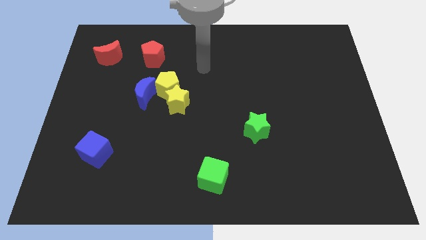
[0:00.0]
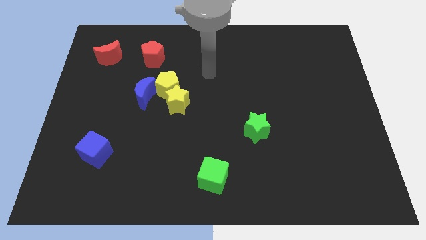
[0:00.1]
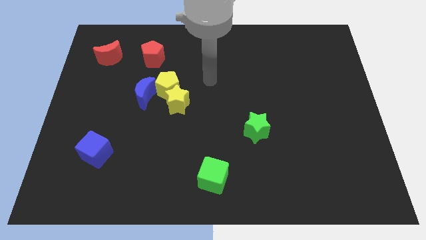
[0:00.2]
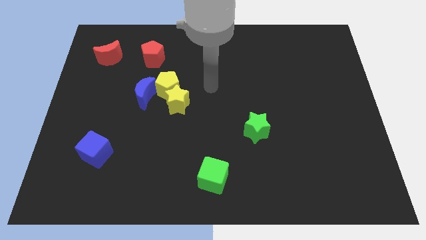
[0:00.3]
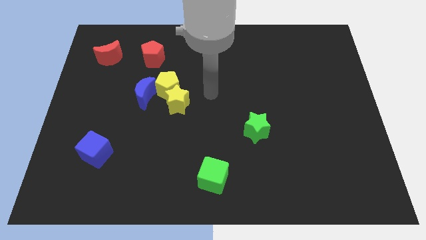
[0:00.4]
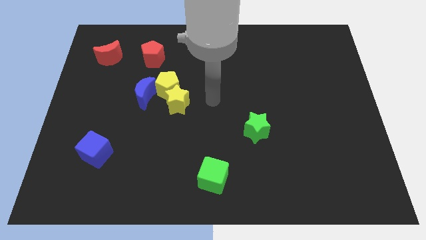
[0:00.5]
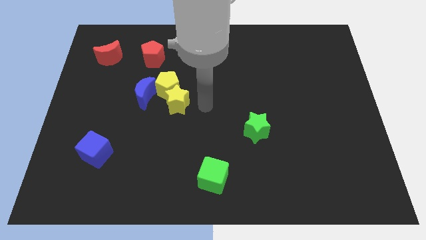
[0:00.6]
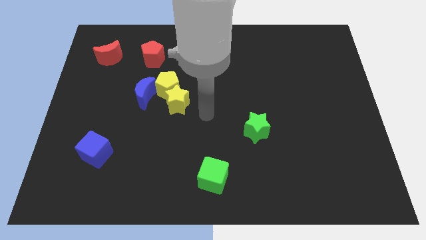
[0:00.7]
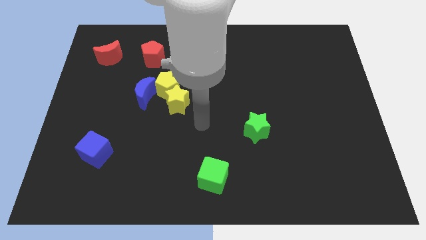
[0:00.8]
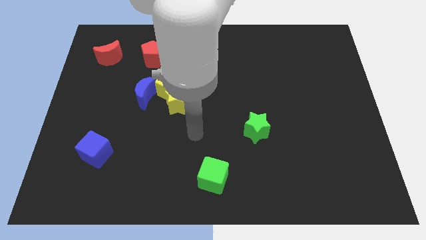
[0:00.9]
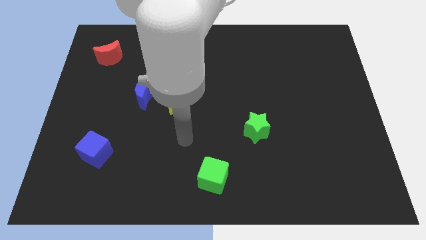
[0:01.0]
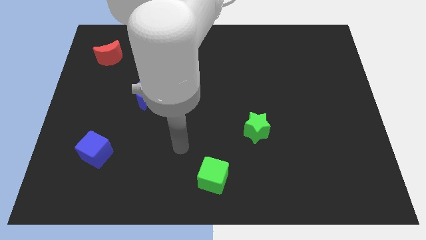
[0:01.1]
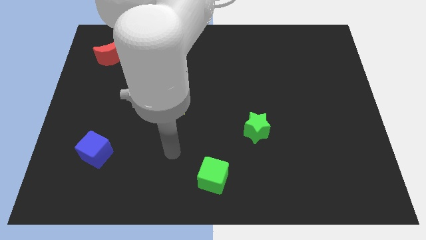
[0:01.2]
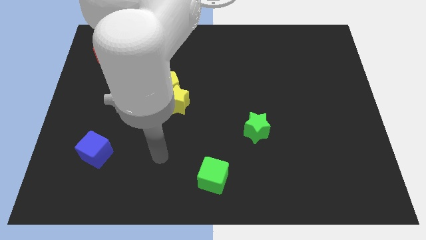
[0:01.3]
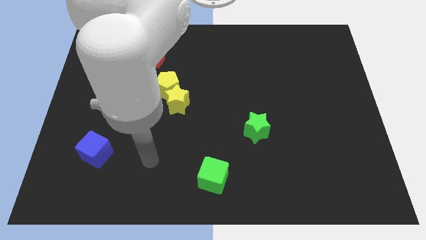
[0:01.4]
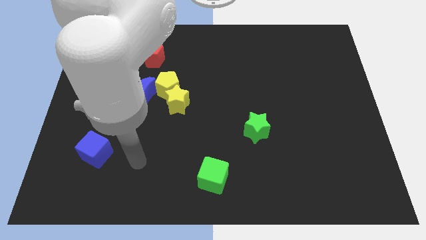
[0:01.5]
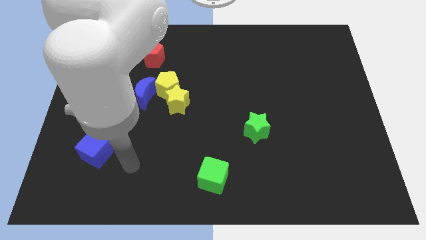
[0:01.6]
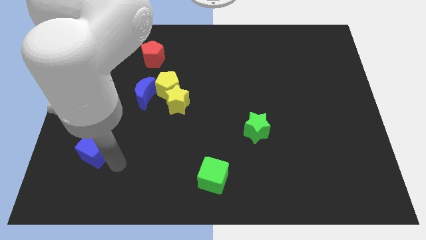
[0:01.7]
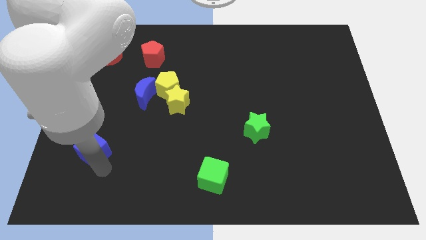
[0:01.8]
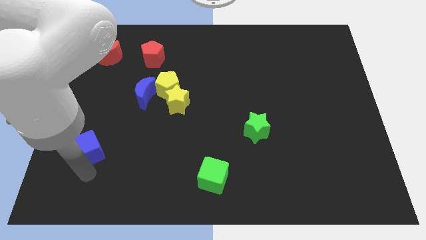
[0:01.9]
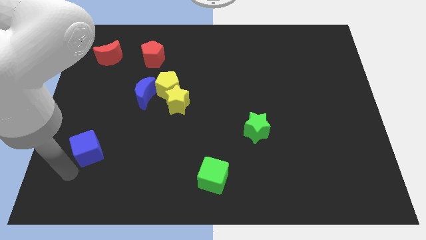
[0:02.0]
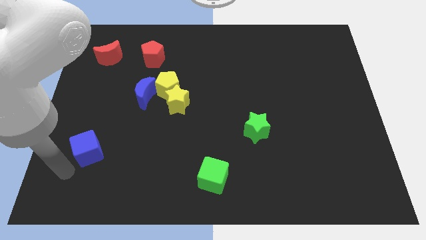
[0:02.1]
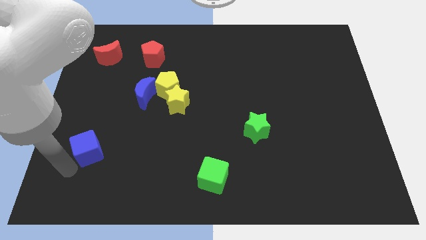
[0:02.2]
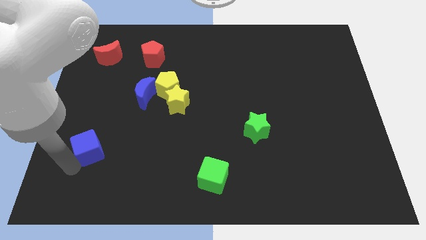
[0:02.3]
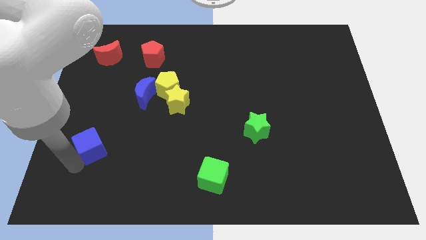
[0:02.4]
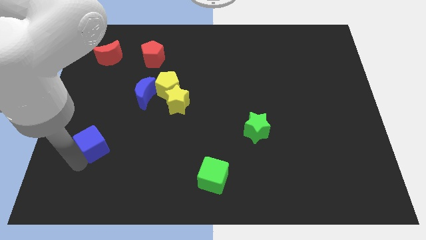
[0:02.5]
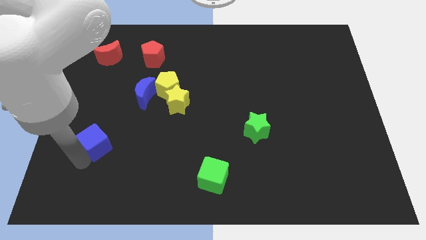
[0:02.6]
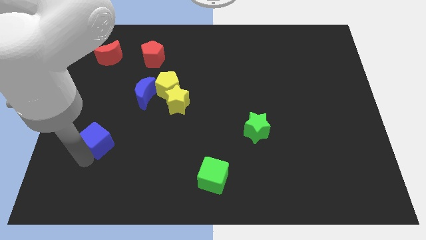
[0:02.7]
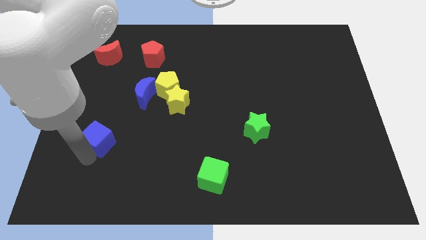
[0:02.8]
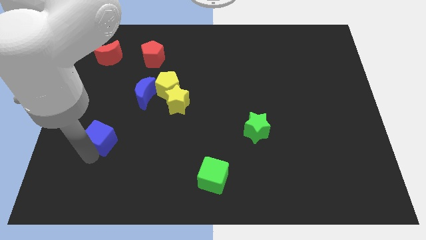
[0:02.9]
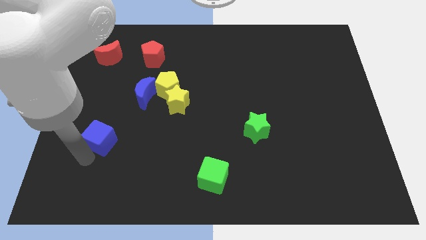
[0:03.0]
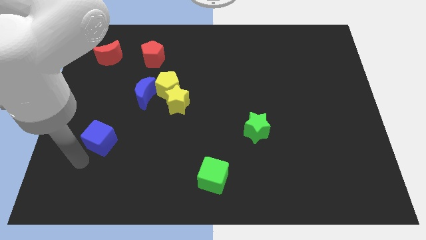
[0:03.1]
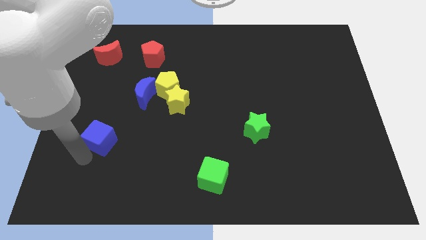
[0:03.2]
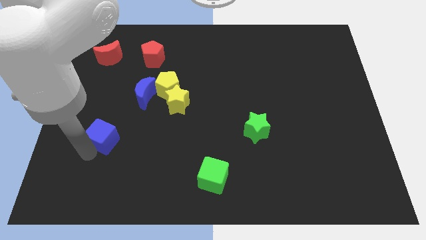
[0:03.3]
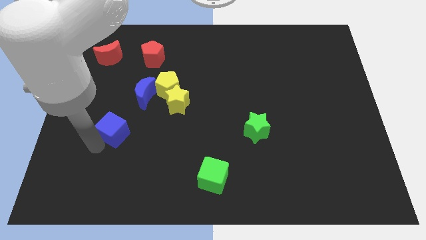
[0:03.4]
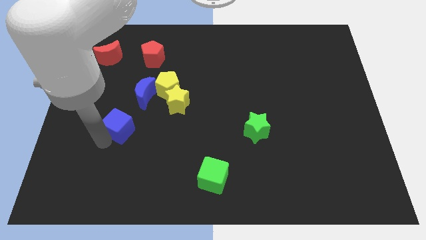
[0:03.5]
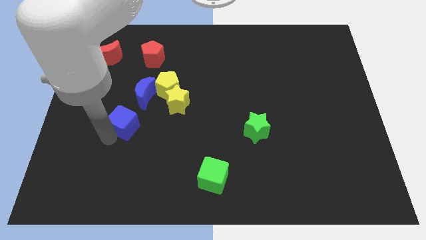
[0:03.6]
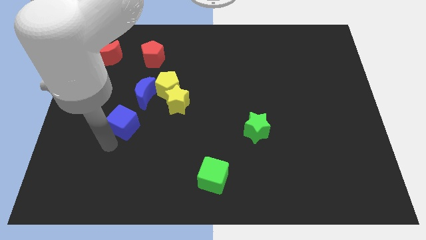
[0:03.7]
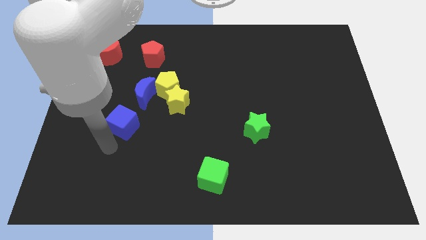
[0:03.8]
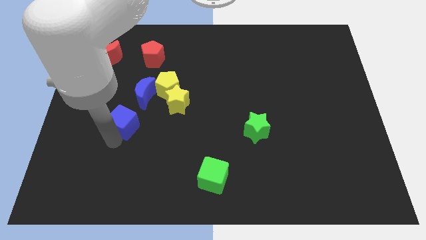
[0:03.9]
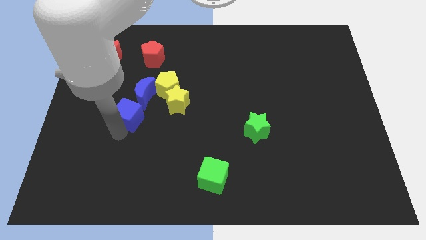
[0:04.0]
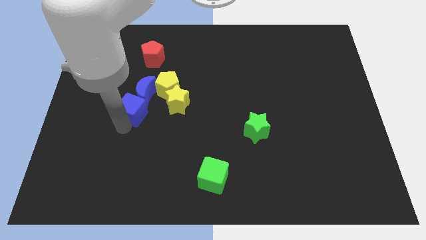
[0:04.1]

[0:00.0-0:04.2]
slide the blue cube next to the blue moon

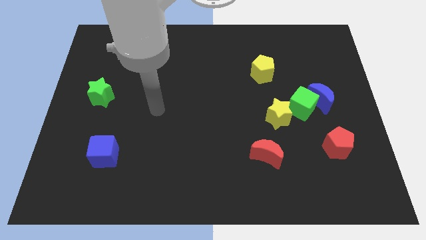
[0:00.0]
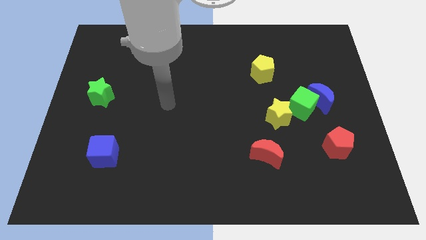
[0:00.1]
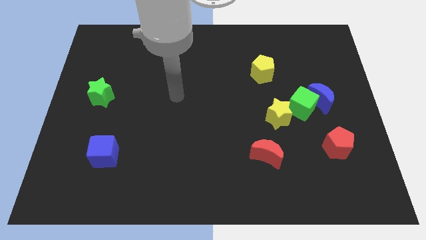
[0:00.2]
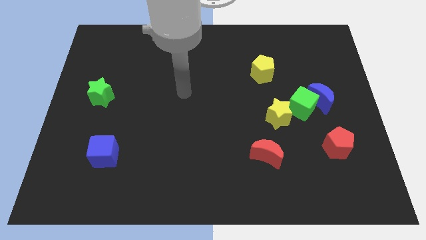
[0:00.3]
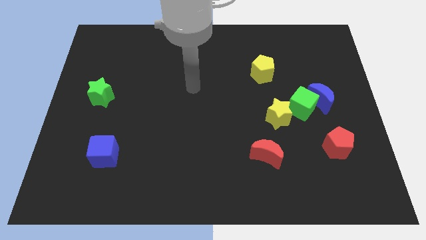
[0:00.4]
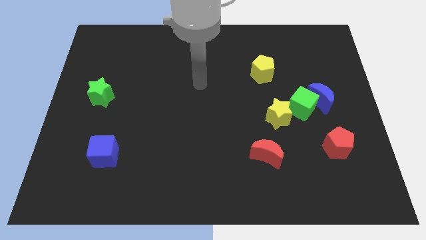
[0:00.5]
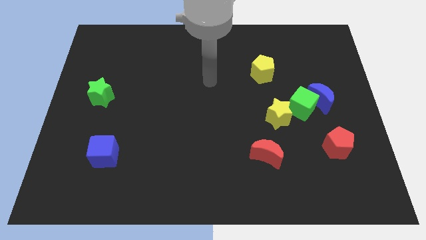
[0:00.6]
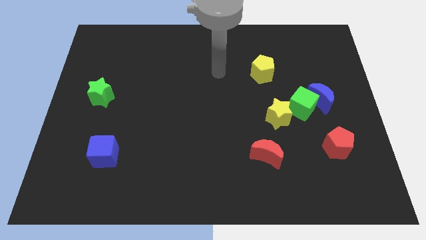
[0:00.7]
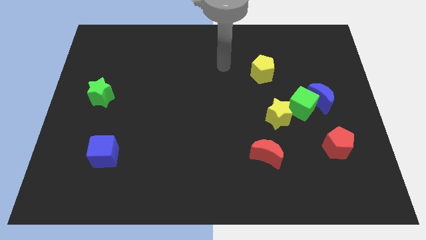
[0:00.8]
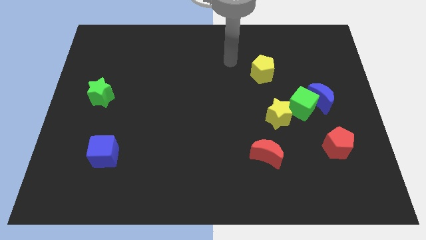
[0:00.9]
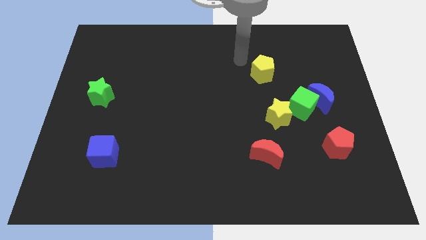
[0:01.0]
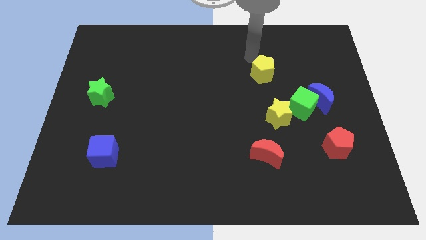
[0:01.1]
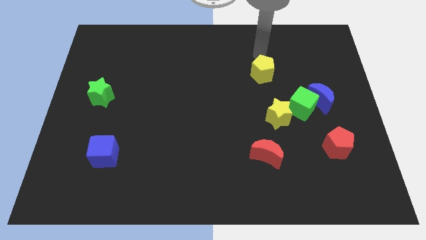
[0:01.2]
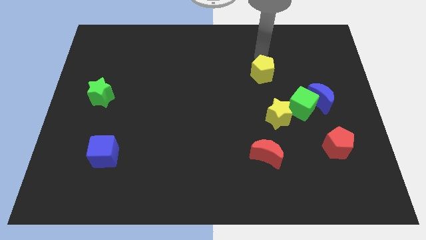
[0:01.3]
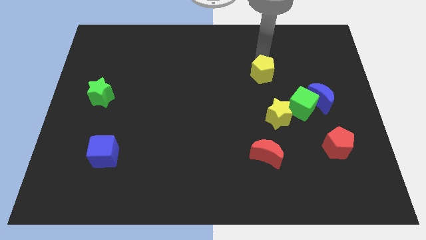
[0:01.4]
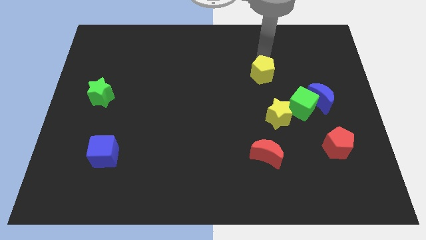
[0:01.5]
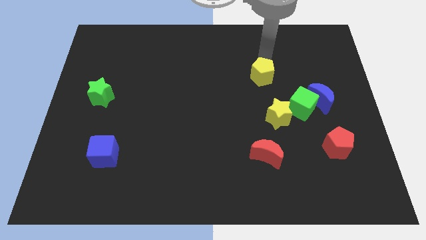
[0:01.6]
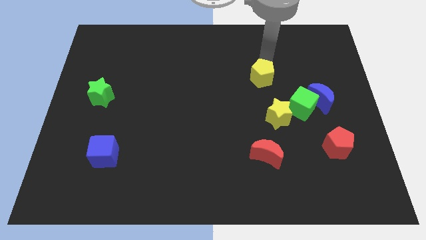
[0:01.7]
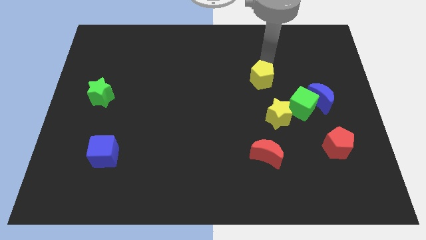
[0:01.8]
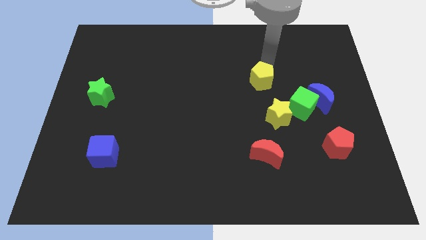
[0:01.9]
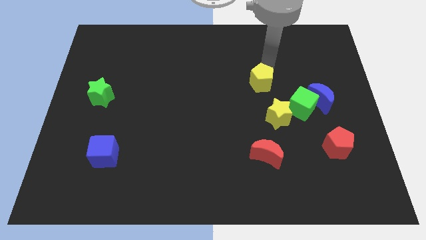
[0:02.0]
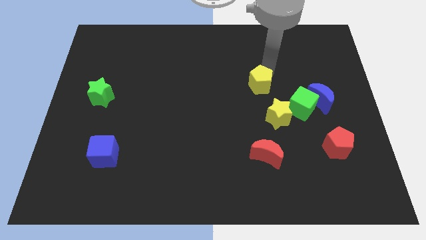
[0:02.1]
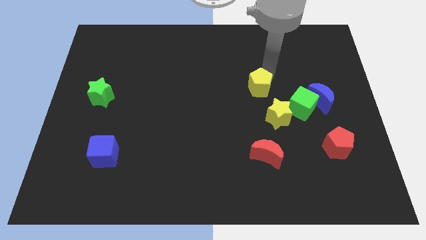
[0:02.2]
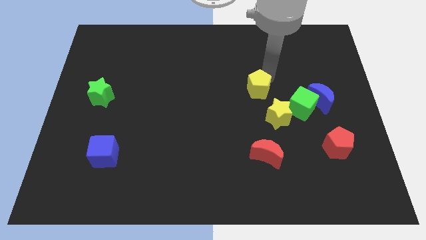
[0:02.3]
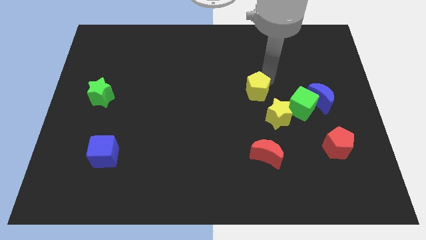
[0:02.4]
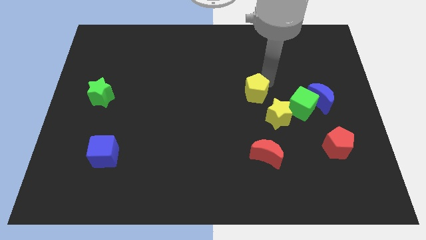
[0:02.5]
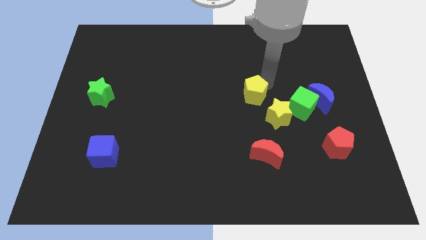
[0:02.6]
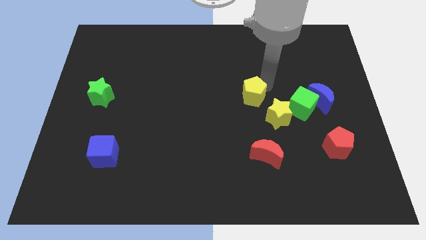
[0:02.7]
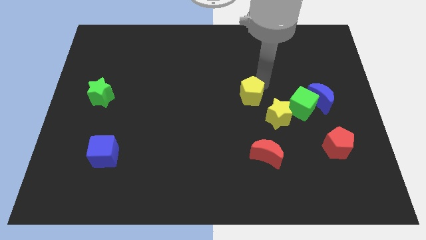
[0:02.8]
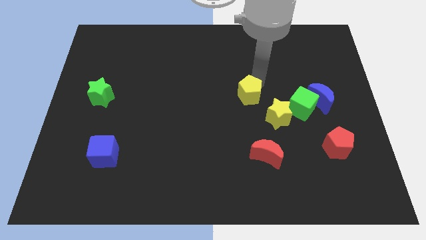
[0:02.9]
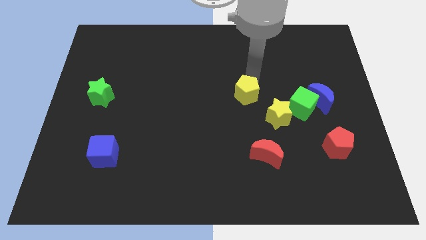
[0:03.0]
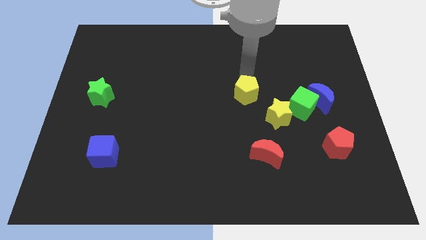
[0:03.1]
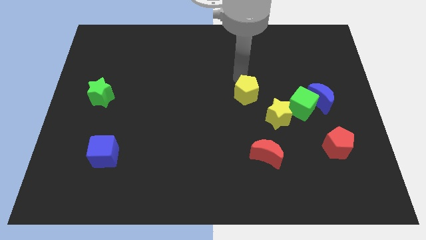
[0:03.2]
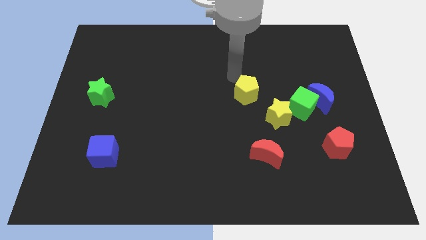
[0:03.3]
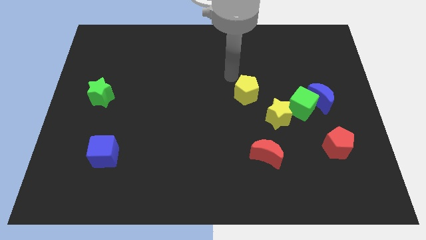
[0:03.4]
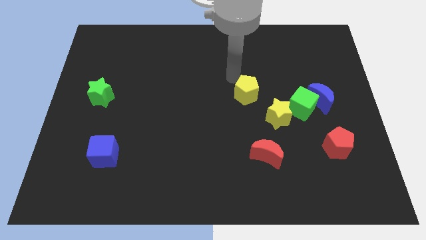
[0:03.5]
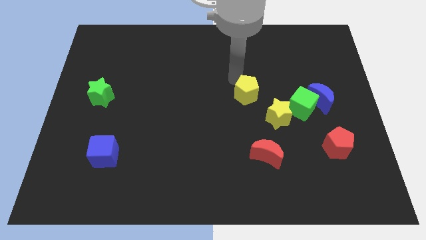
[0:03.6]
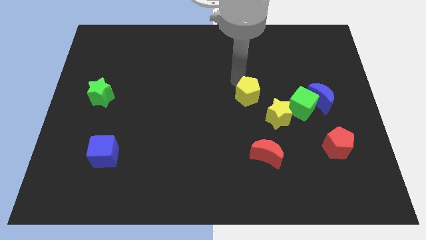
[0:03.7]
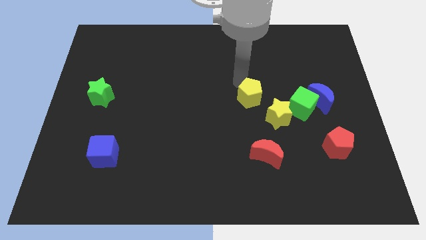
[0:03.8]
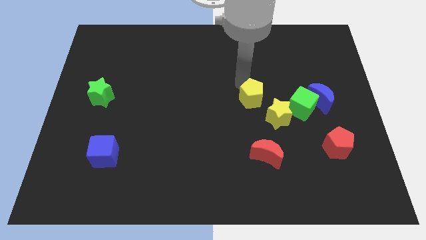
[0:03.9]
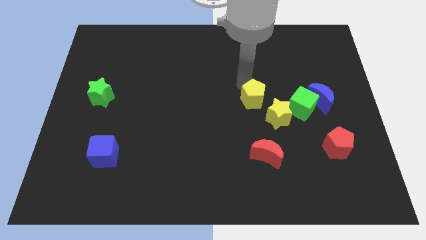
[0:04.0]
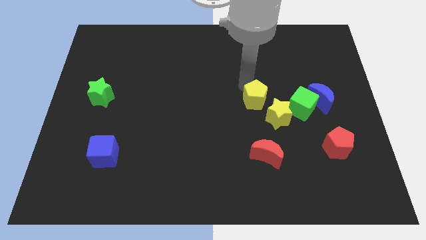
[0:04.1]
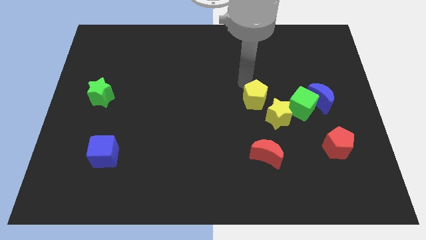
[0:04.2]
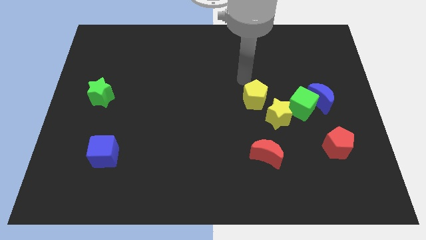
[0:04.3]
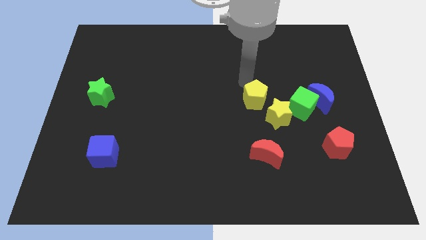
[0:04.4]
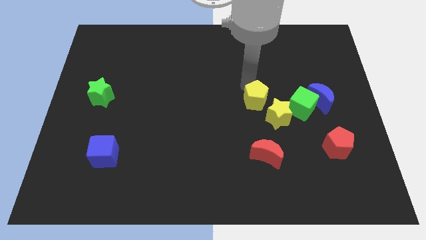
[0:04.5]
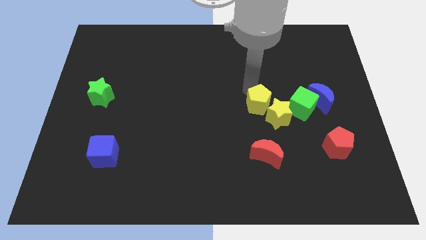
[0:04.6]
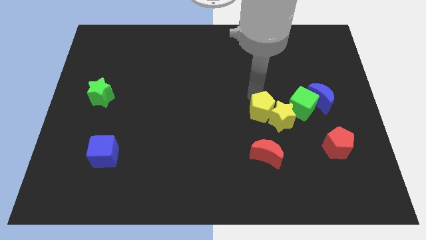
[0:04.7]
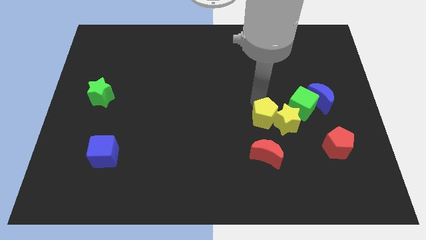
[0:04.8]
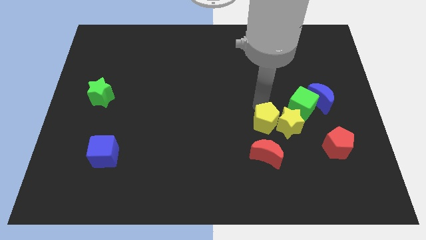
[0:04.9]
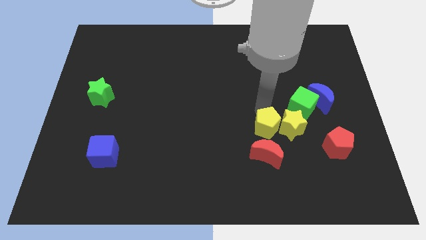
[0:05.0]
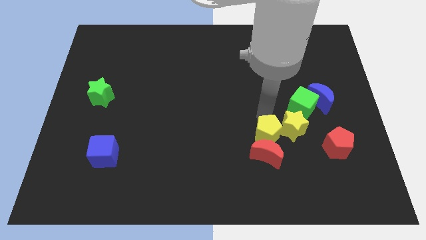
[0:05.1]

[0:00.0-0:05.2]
put the yellow pentagon towards the red moon
